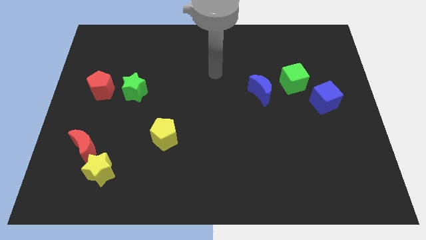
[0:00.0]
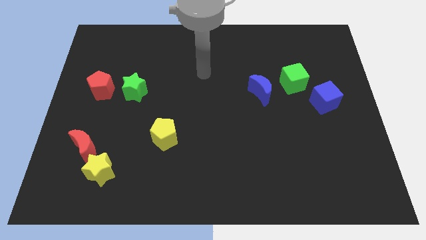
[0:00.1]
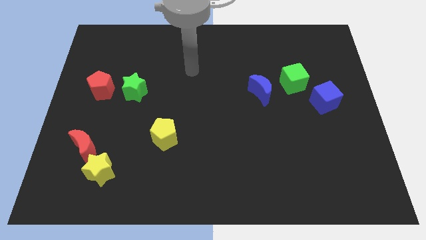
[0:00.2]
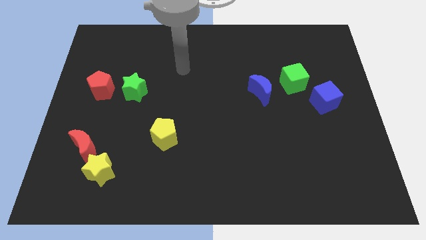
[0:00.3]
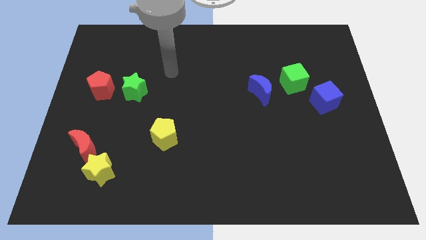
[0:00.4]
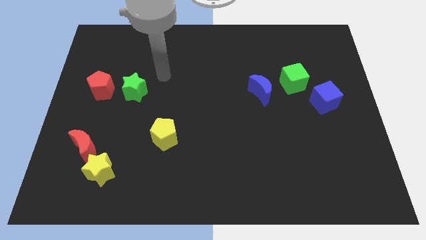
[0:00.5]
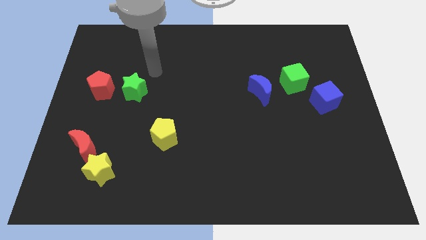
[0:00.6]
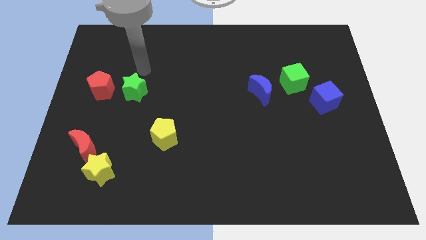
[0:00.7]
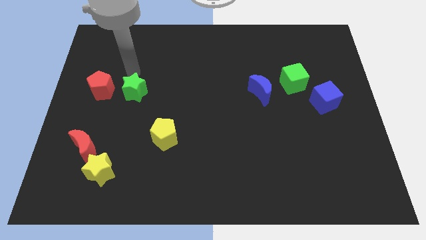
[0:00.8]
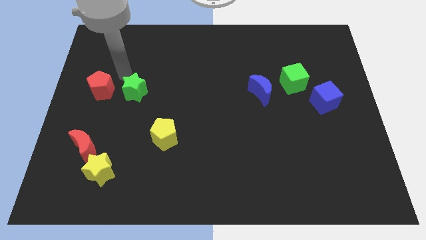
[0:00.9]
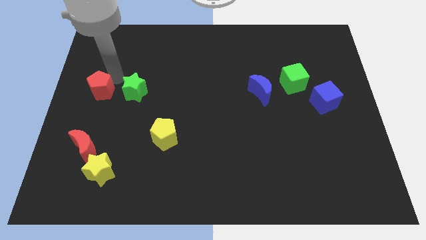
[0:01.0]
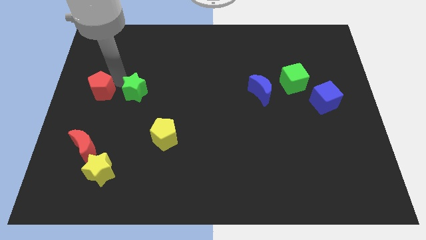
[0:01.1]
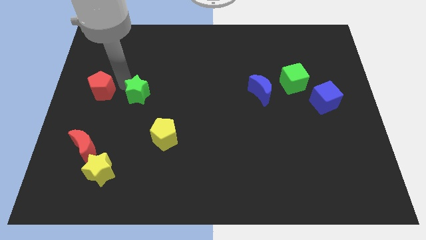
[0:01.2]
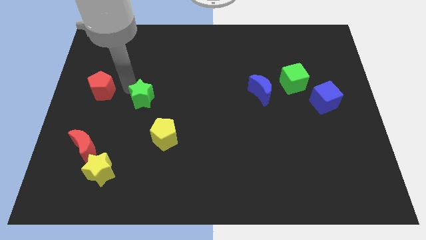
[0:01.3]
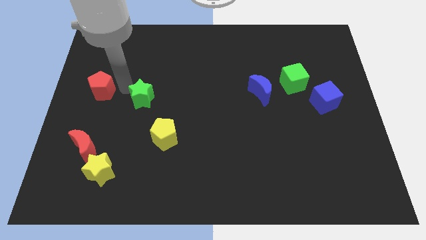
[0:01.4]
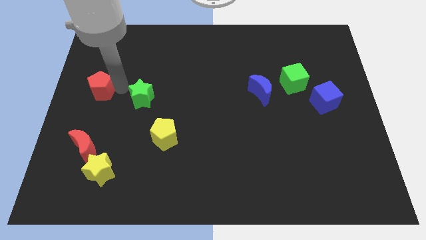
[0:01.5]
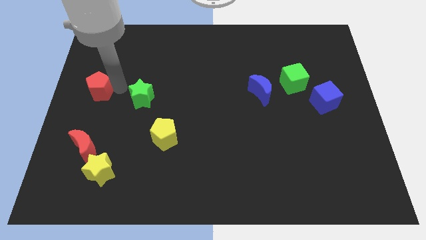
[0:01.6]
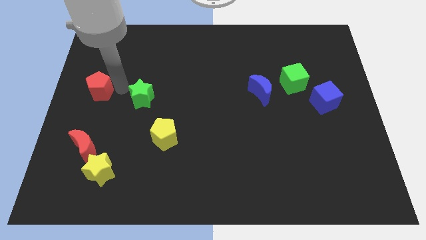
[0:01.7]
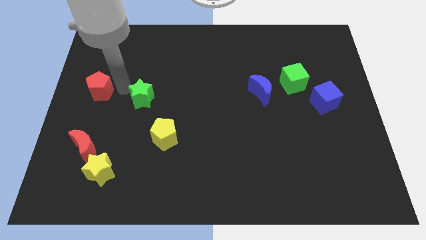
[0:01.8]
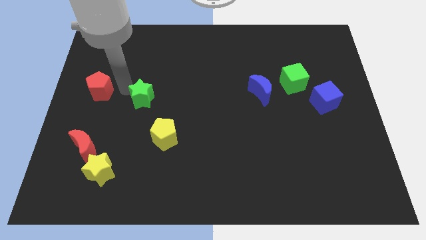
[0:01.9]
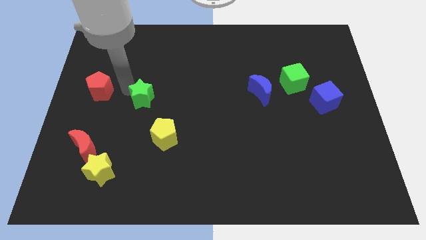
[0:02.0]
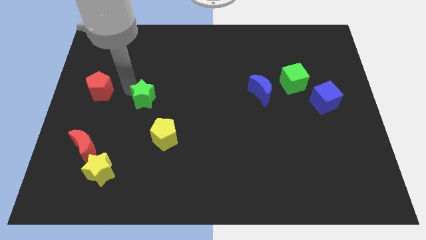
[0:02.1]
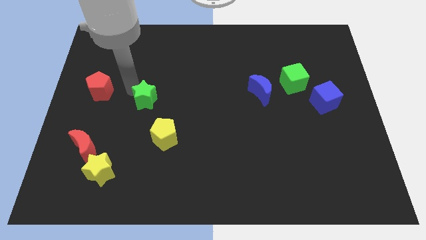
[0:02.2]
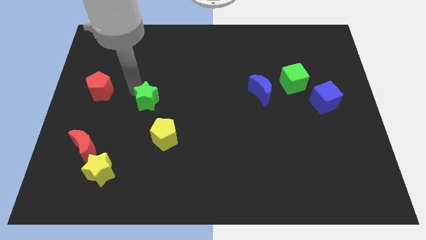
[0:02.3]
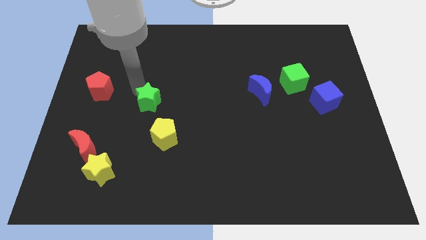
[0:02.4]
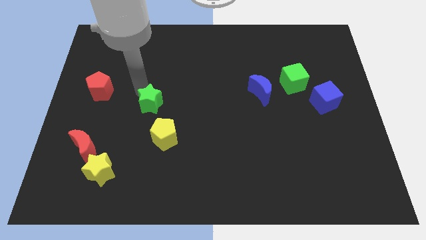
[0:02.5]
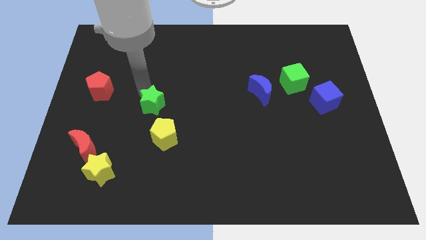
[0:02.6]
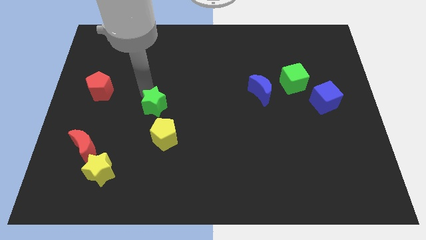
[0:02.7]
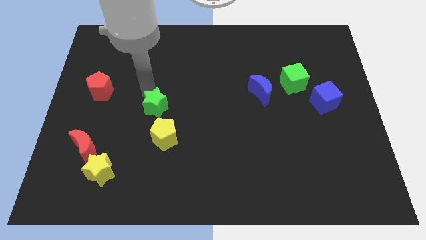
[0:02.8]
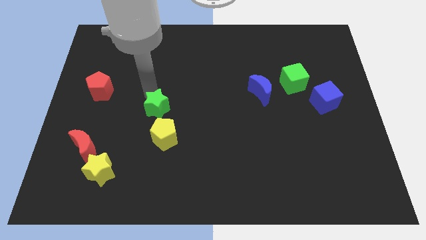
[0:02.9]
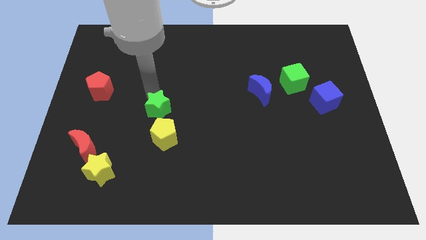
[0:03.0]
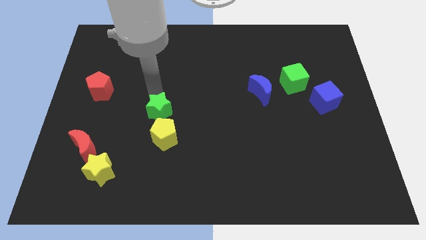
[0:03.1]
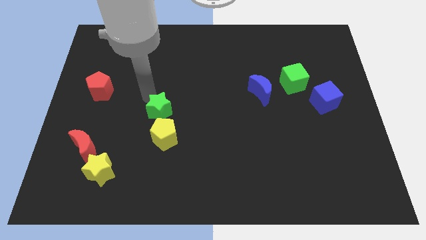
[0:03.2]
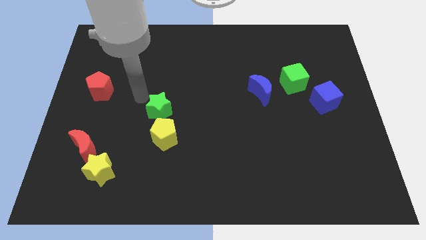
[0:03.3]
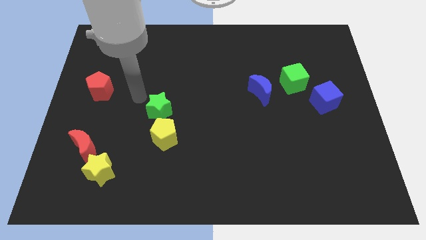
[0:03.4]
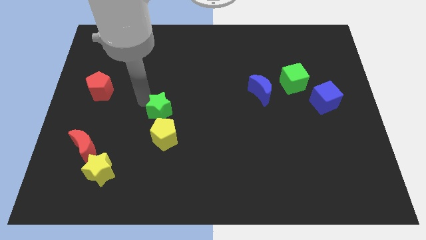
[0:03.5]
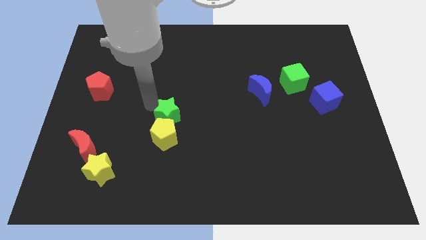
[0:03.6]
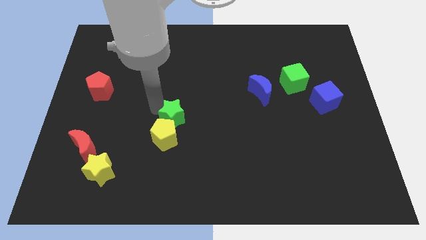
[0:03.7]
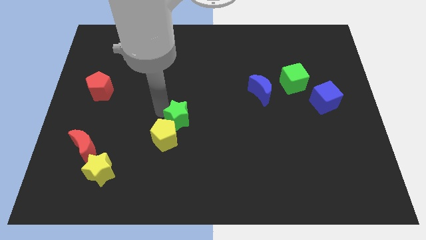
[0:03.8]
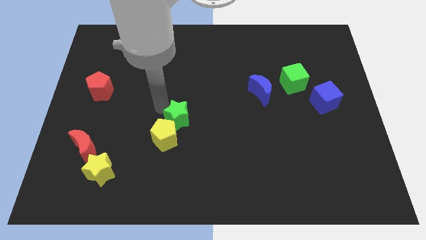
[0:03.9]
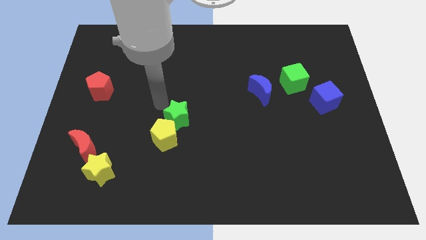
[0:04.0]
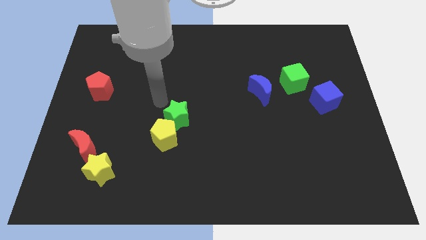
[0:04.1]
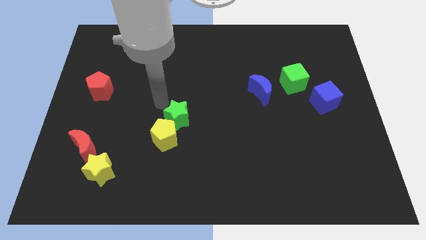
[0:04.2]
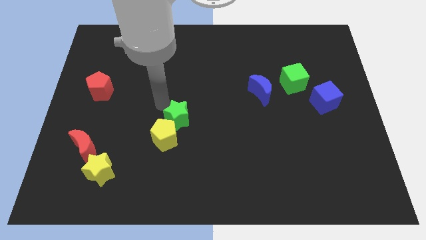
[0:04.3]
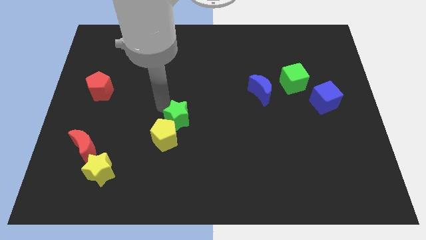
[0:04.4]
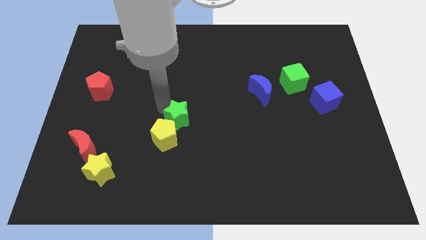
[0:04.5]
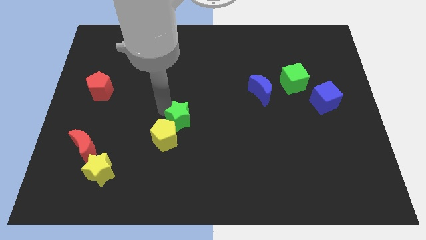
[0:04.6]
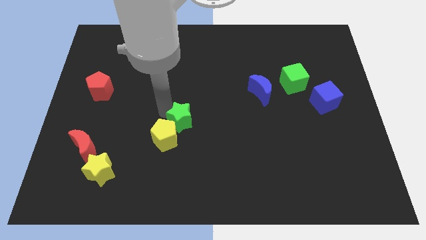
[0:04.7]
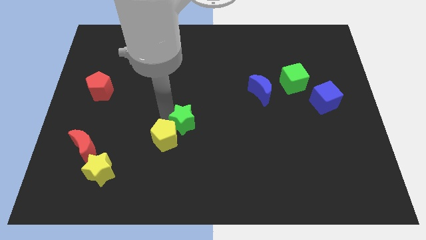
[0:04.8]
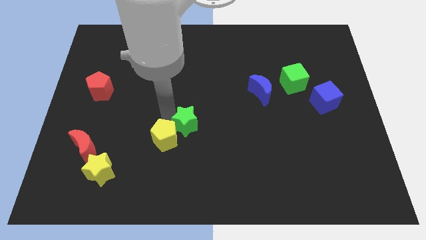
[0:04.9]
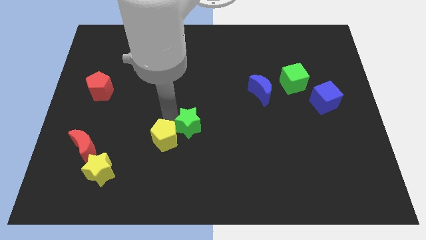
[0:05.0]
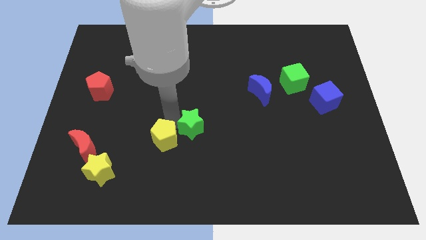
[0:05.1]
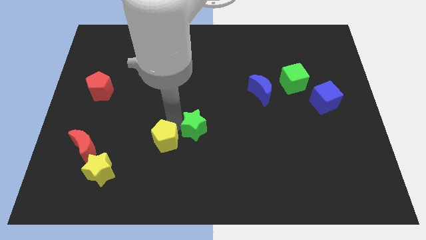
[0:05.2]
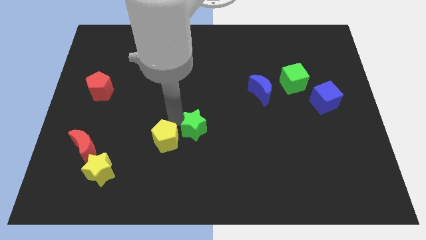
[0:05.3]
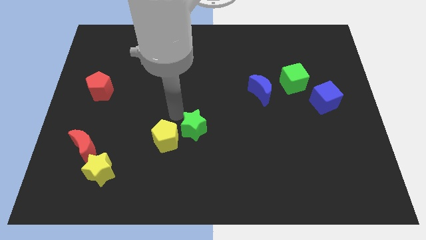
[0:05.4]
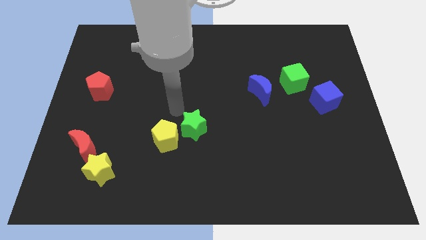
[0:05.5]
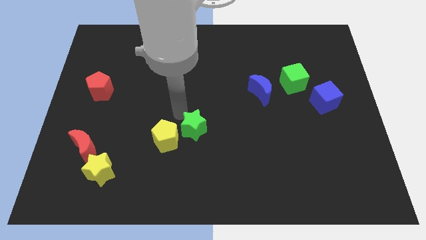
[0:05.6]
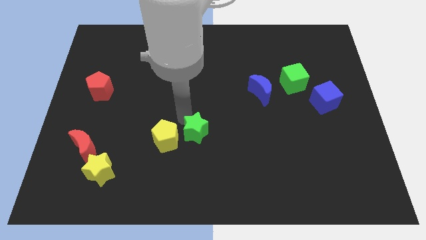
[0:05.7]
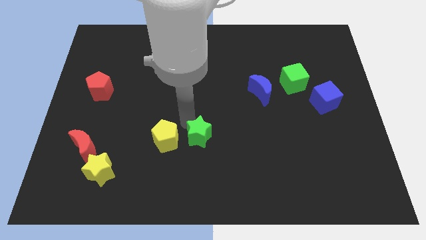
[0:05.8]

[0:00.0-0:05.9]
push the green star downwards and to the right diagonally

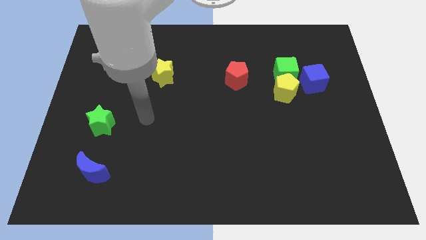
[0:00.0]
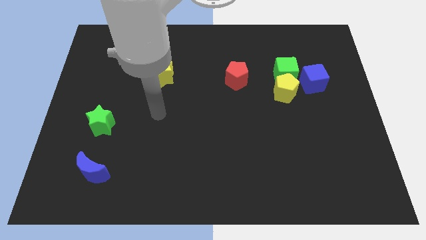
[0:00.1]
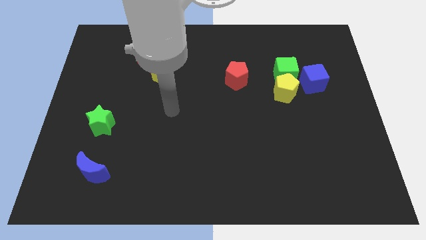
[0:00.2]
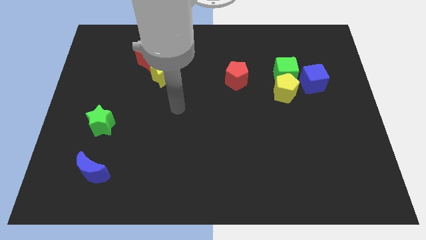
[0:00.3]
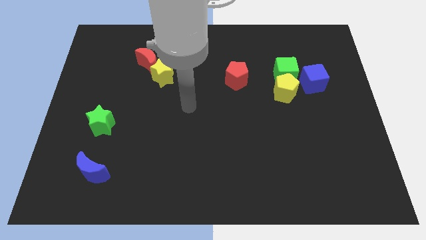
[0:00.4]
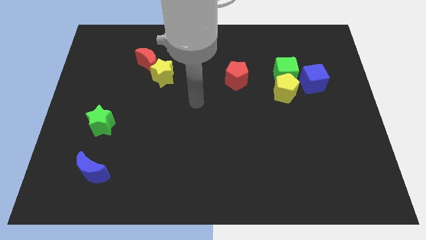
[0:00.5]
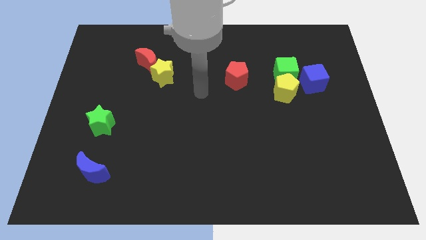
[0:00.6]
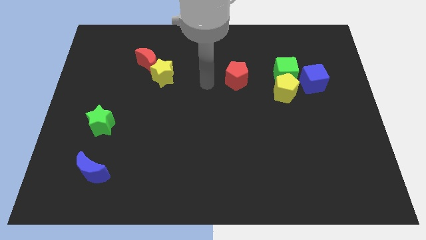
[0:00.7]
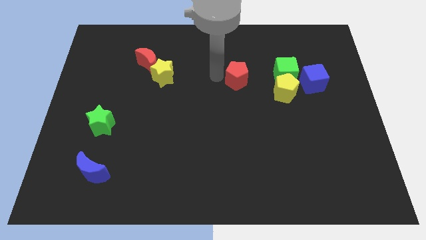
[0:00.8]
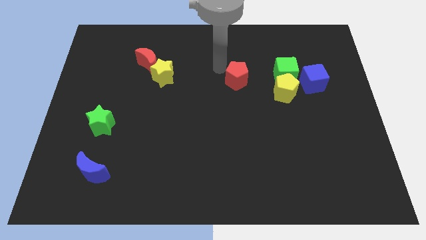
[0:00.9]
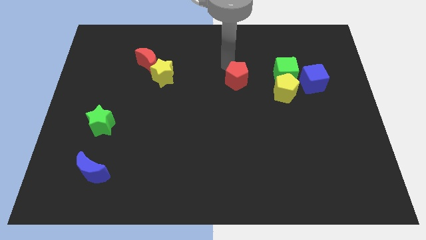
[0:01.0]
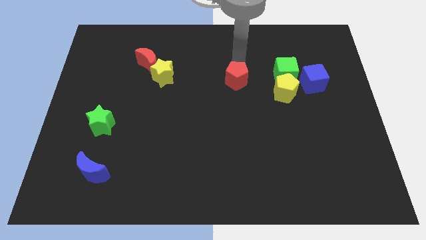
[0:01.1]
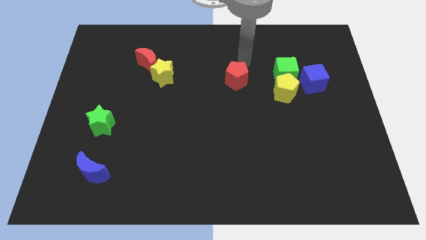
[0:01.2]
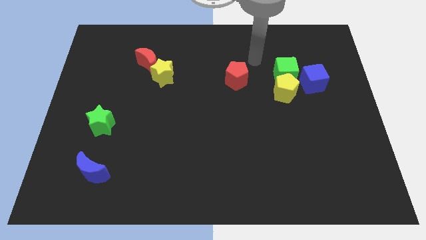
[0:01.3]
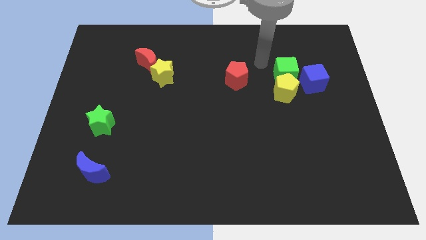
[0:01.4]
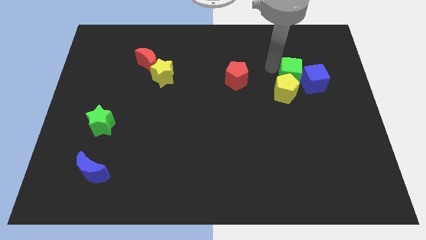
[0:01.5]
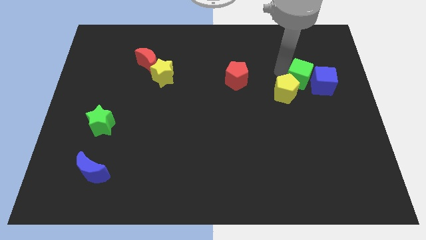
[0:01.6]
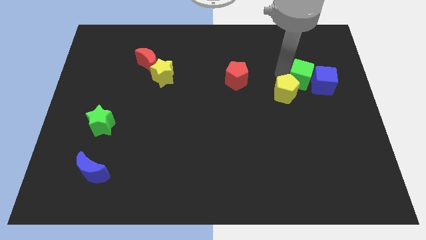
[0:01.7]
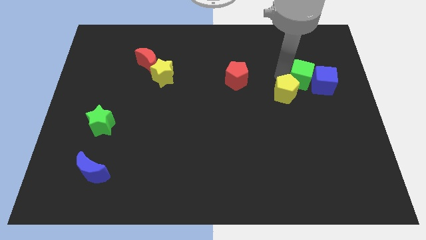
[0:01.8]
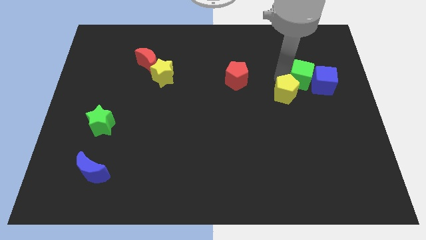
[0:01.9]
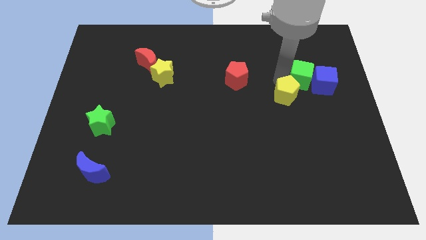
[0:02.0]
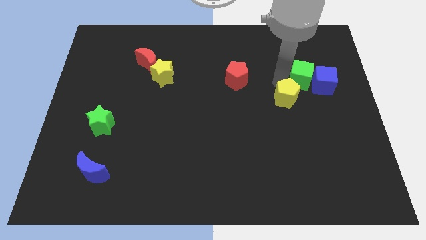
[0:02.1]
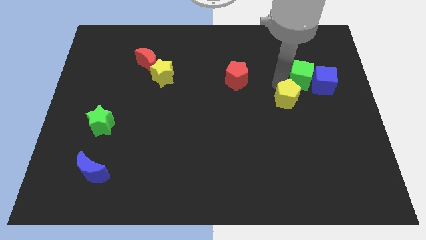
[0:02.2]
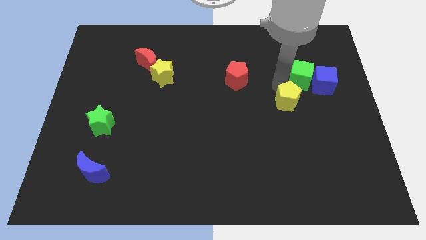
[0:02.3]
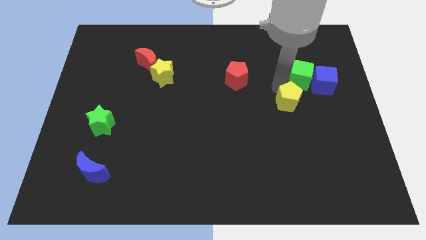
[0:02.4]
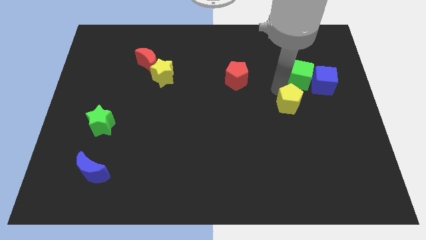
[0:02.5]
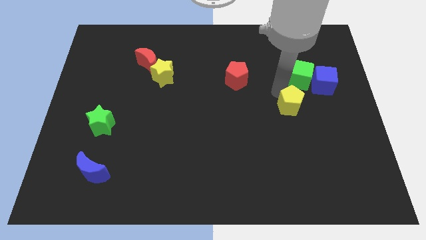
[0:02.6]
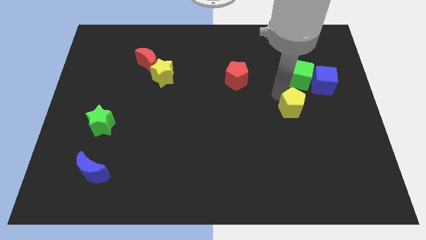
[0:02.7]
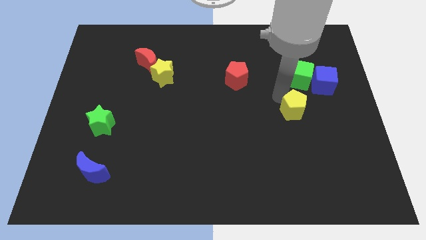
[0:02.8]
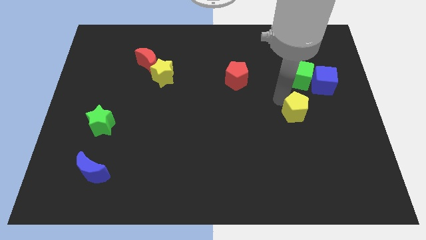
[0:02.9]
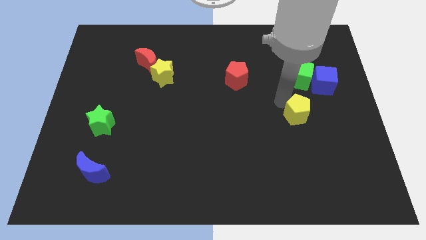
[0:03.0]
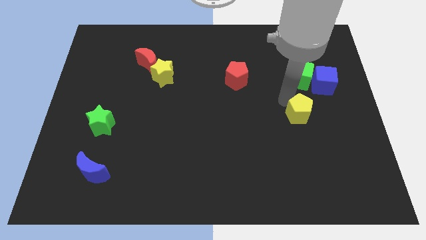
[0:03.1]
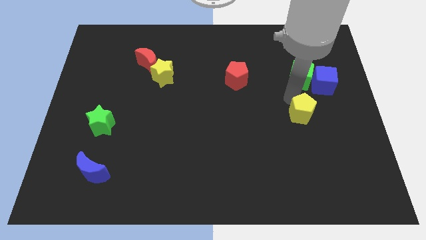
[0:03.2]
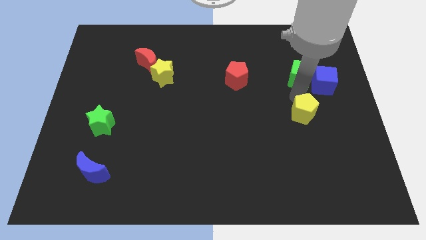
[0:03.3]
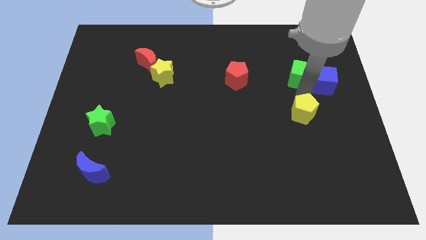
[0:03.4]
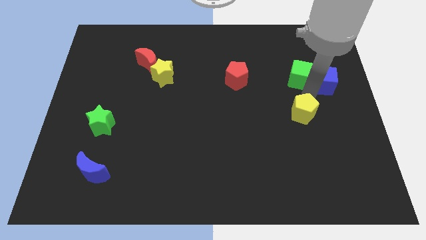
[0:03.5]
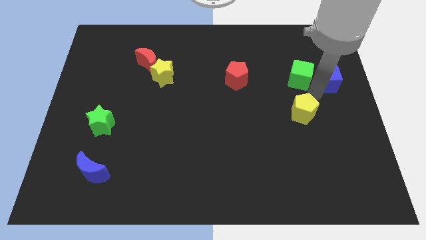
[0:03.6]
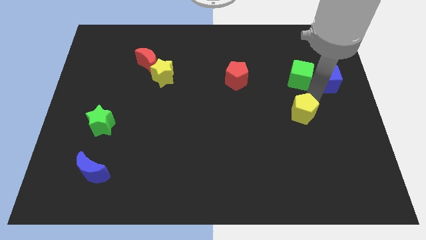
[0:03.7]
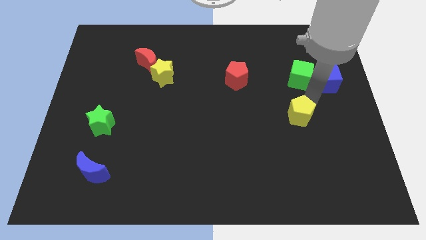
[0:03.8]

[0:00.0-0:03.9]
move the yellow pentagon downwards somewhat
